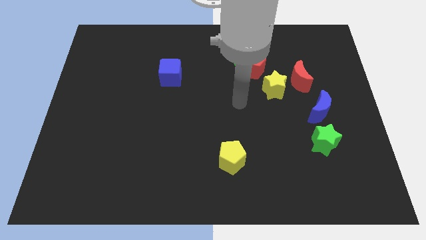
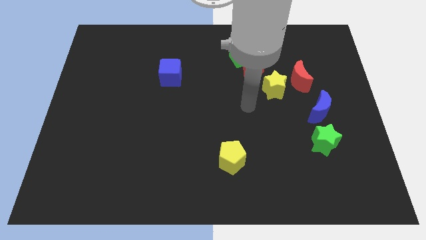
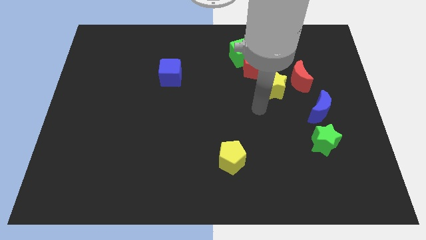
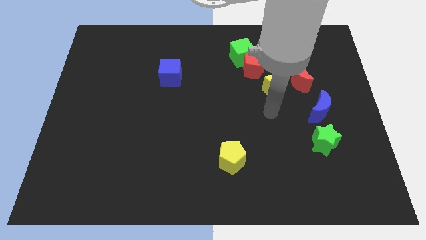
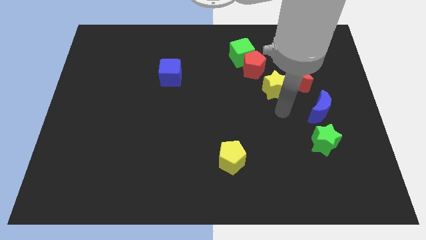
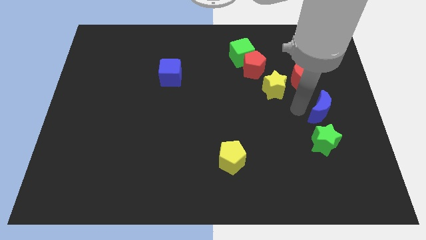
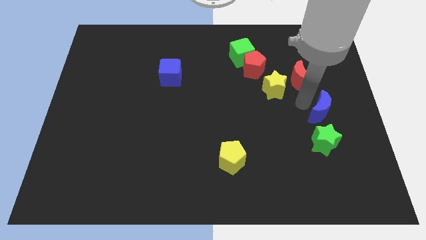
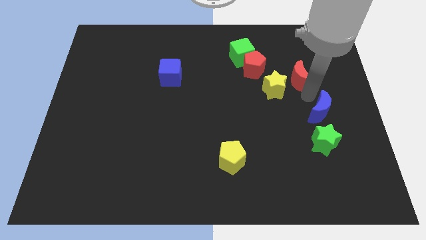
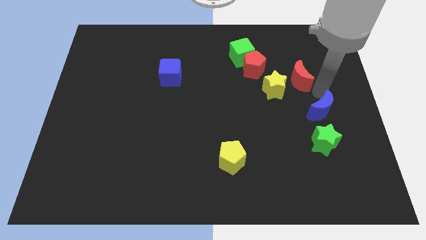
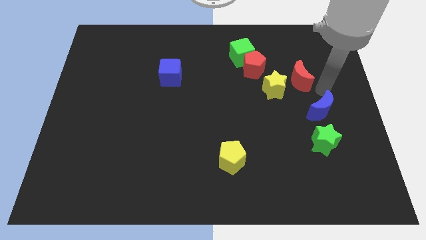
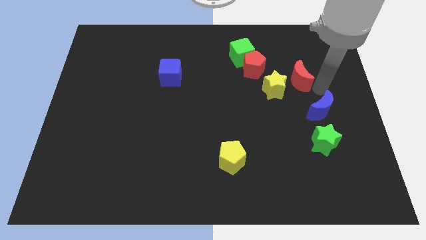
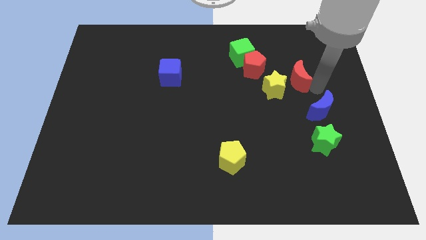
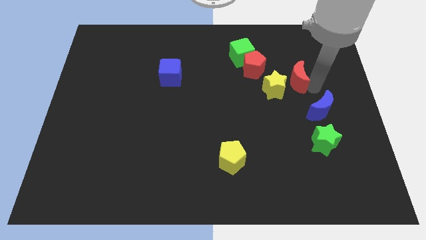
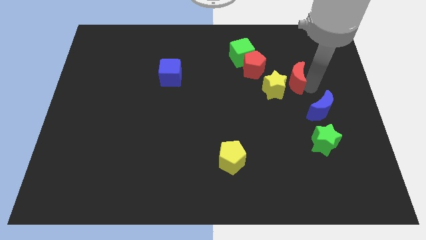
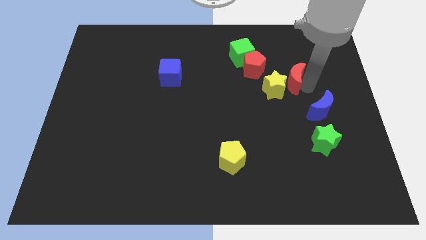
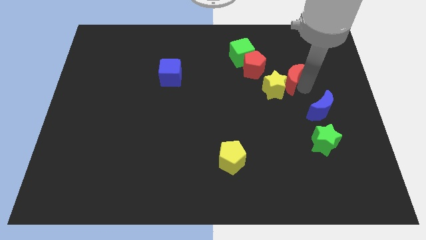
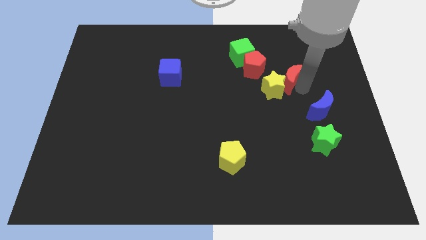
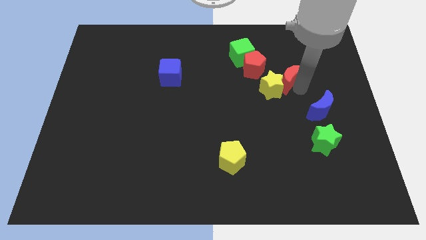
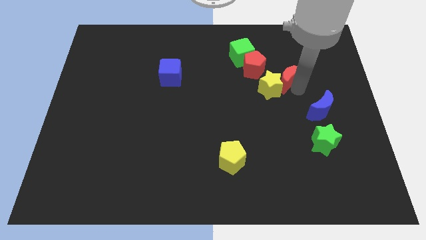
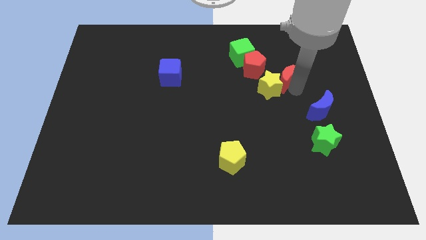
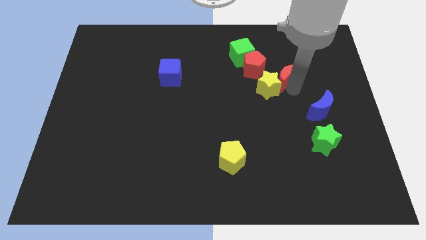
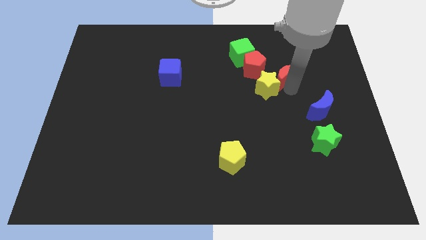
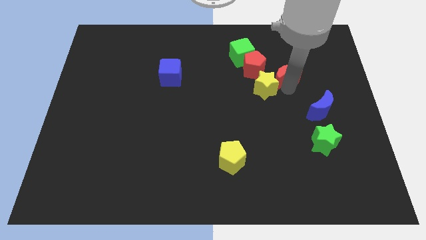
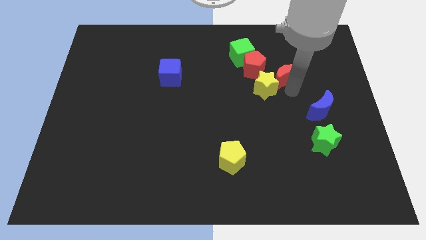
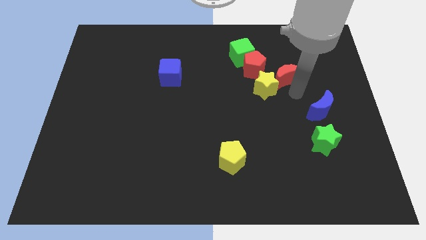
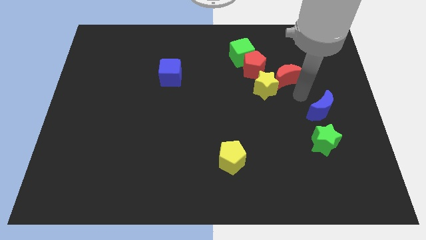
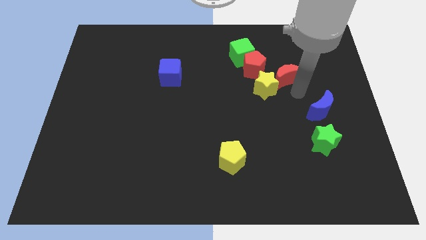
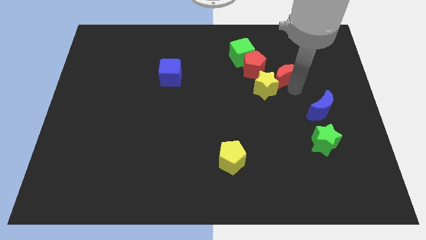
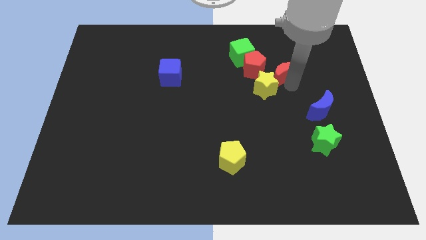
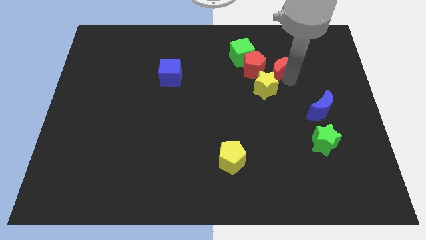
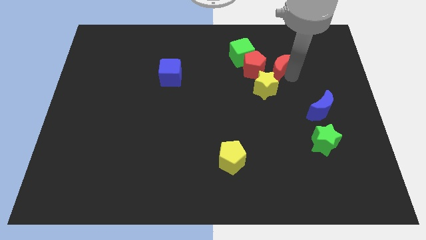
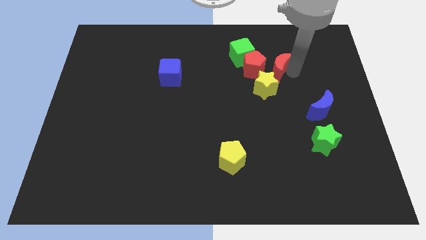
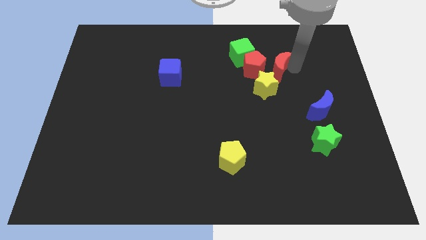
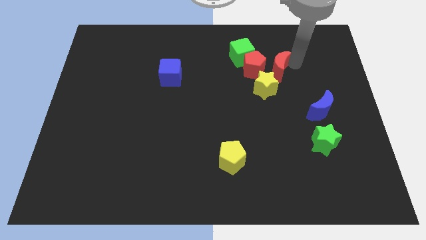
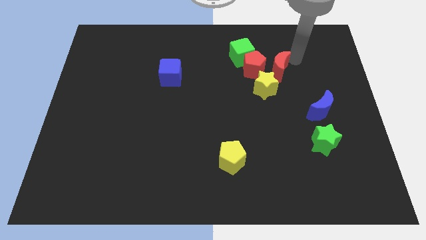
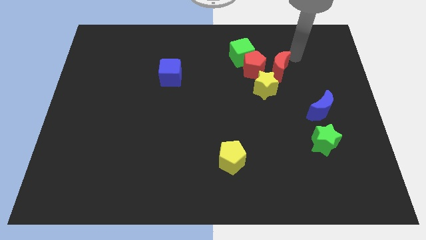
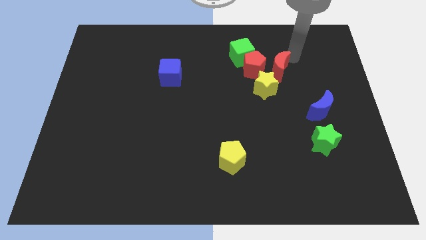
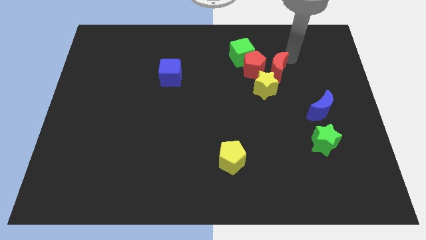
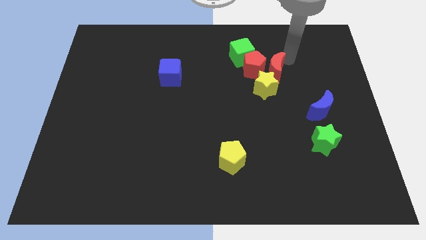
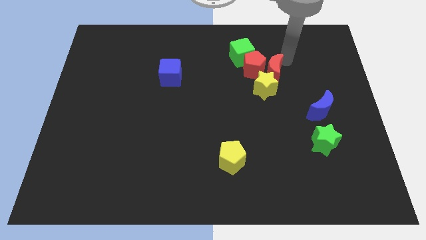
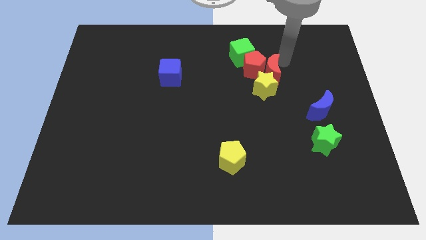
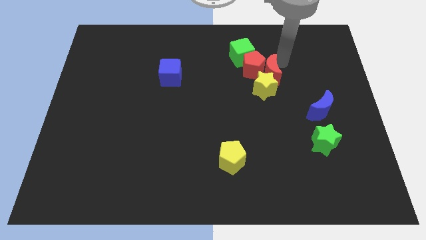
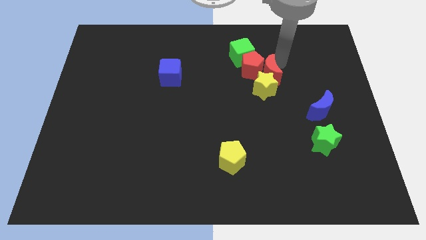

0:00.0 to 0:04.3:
slightly push the red moon left

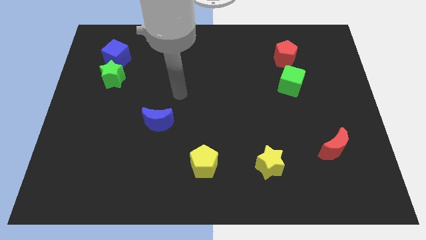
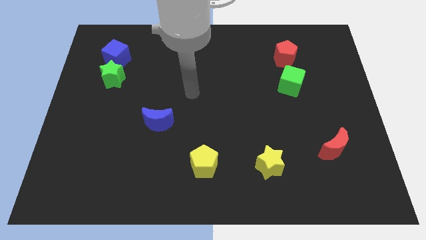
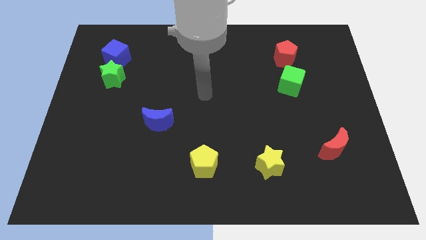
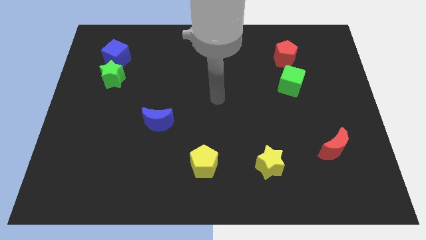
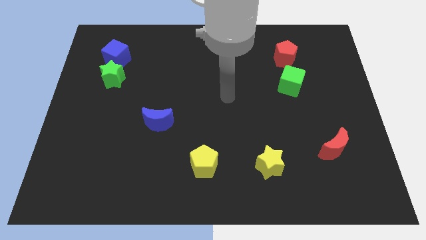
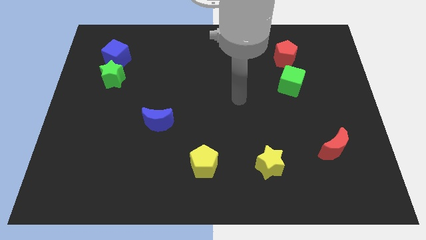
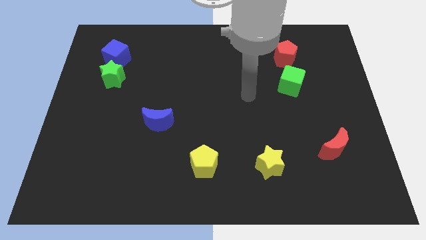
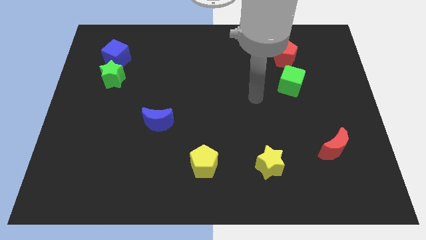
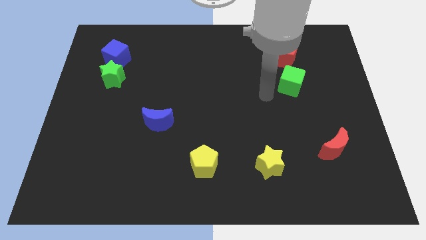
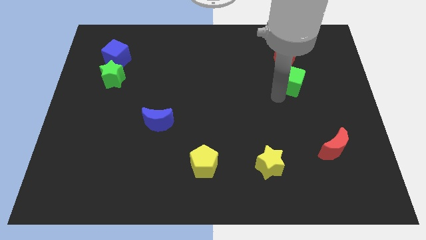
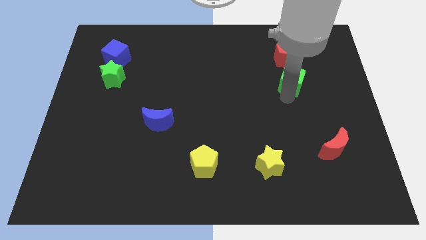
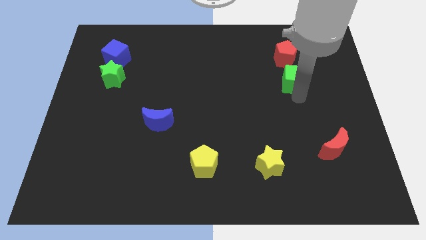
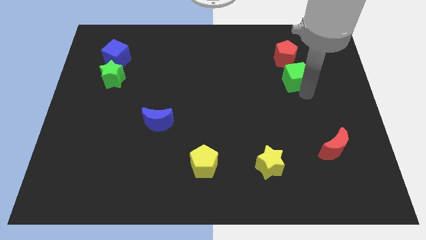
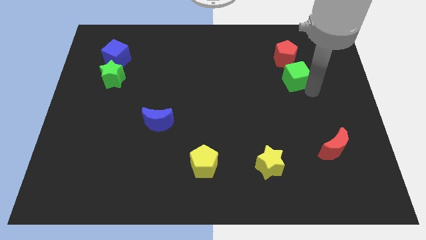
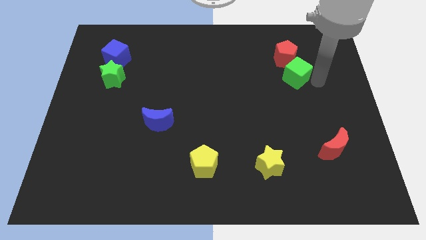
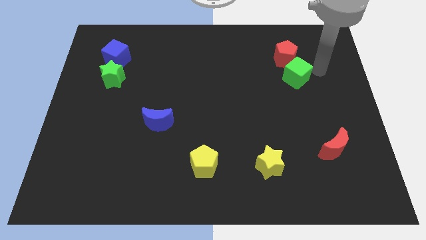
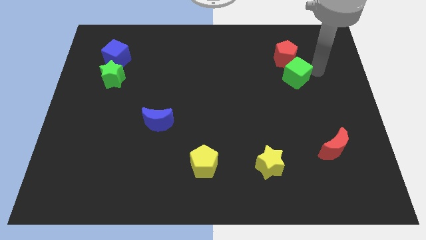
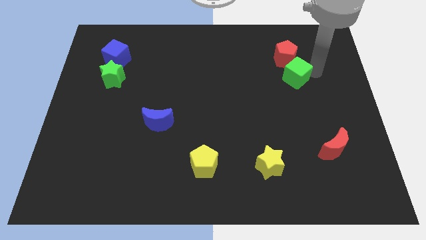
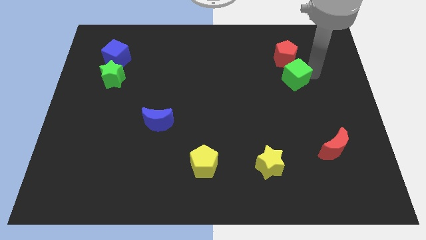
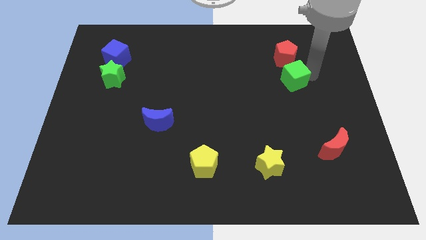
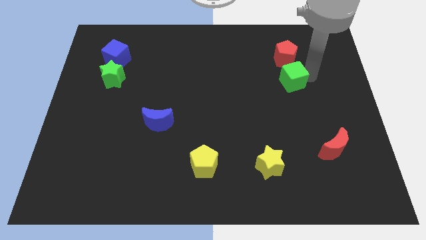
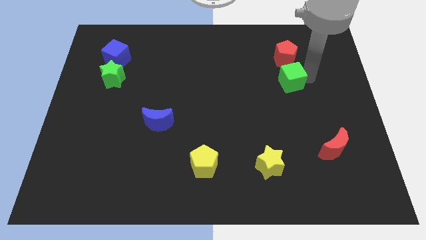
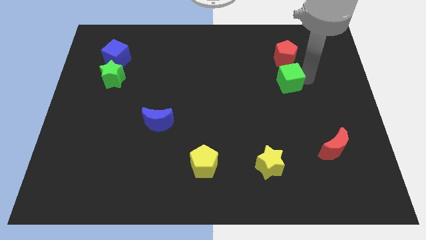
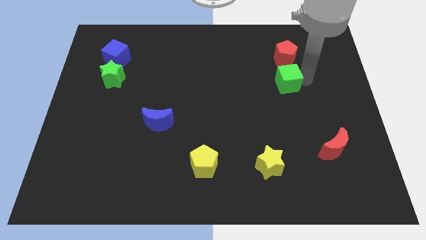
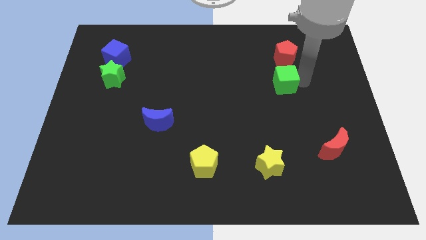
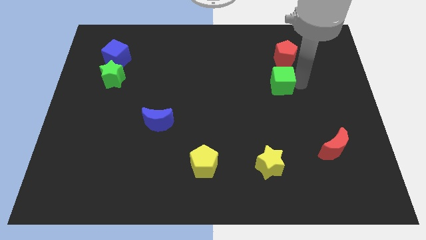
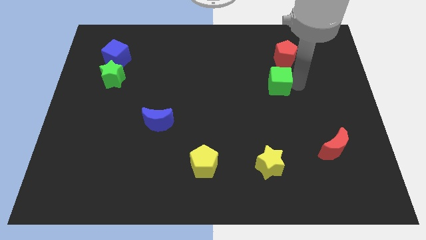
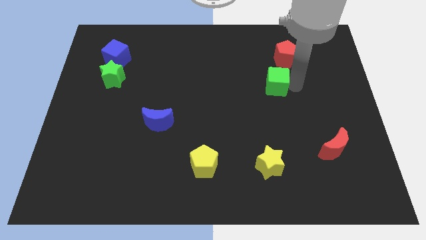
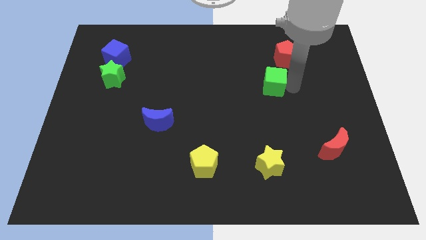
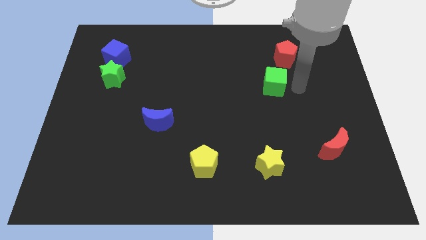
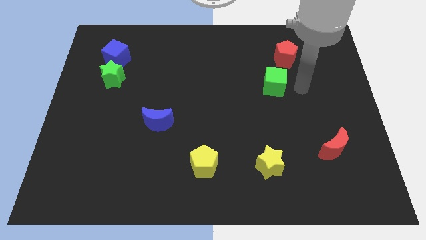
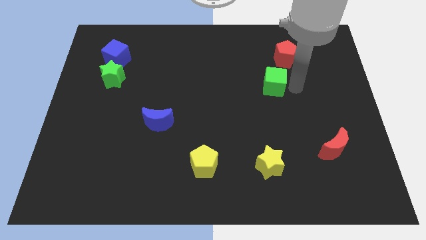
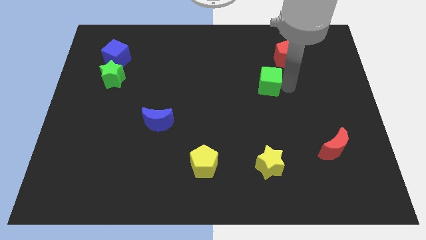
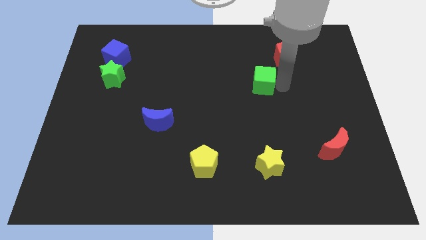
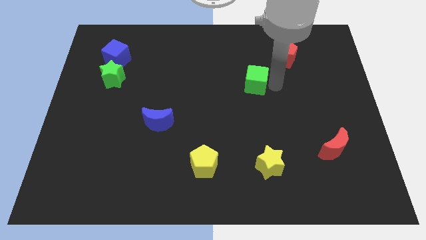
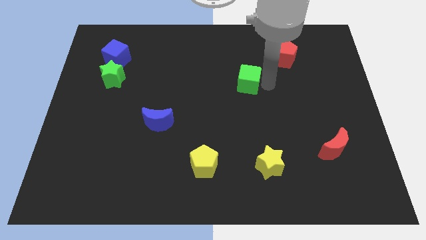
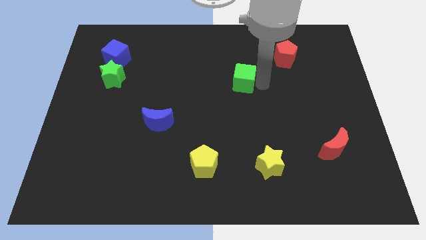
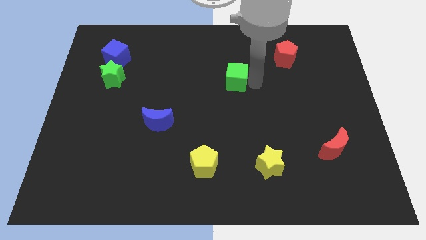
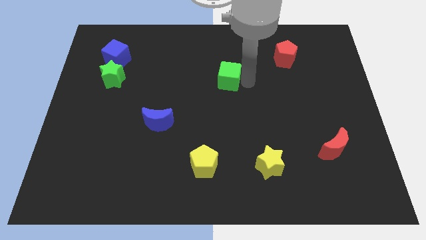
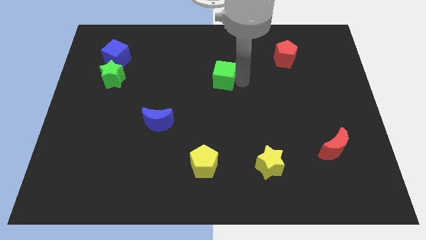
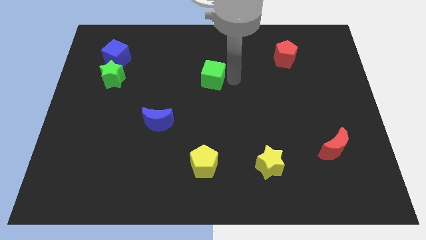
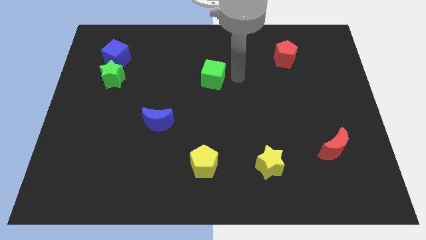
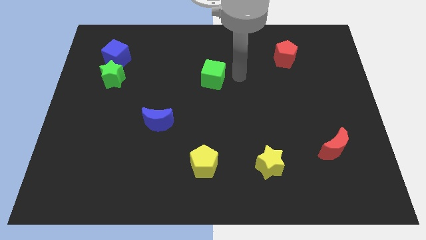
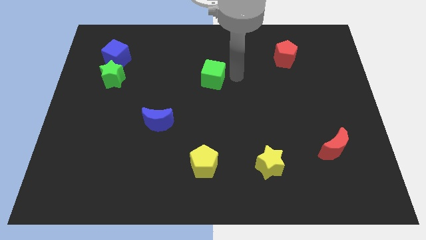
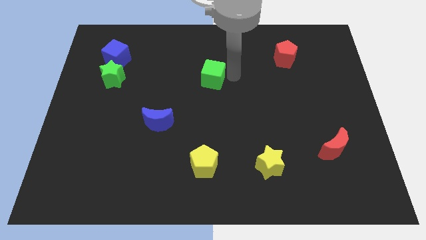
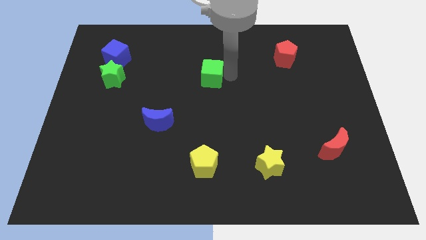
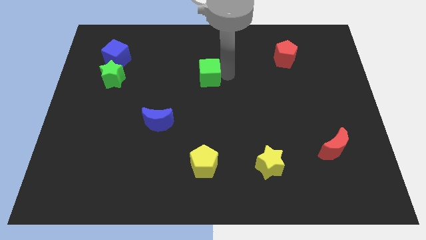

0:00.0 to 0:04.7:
push the green cube left
